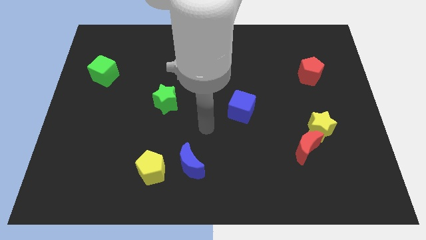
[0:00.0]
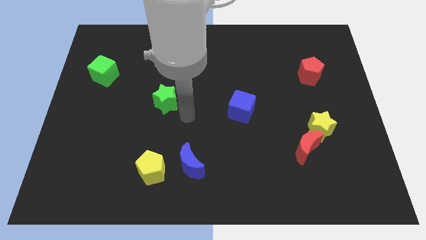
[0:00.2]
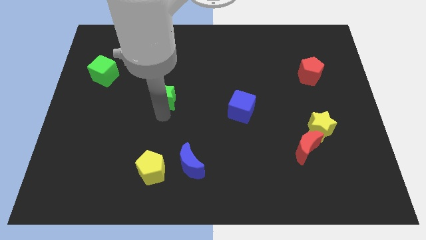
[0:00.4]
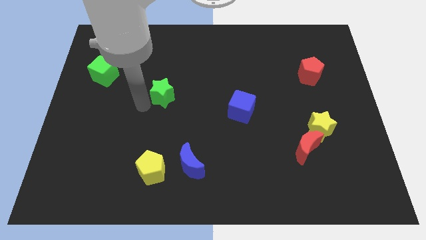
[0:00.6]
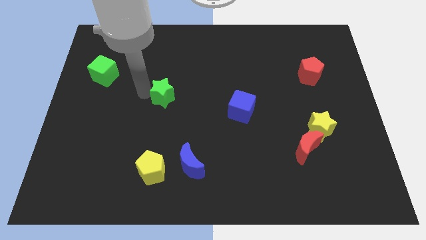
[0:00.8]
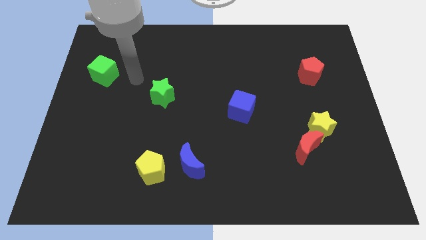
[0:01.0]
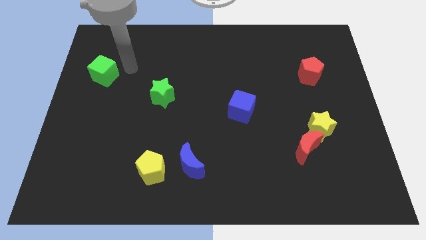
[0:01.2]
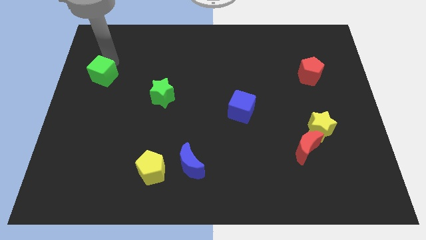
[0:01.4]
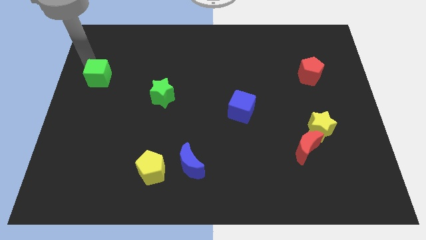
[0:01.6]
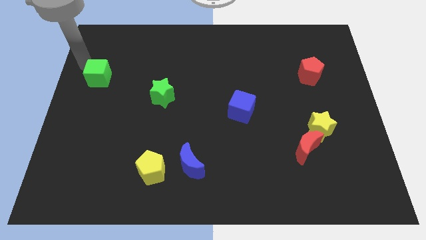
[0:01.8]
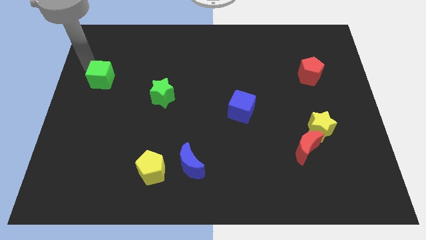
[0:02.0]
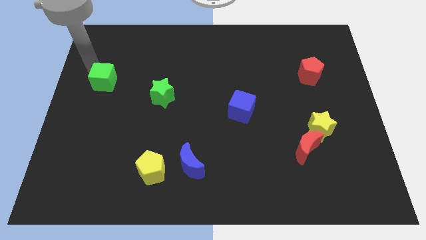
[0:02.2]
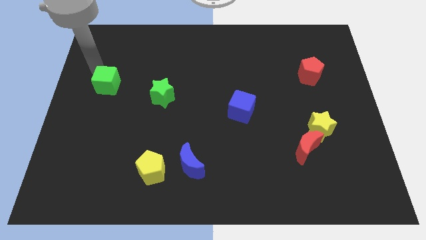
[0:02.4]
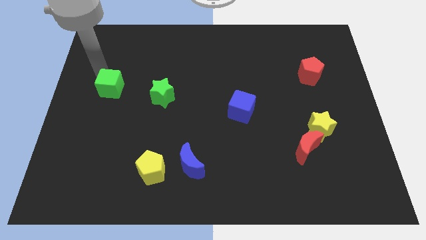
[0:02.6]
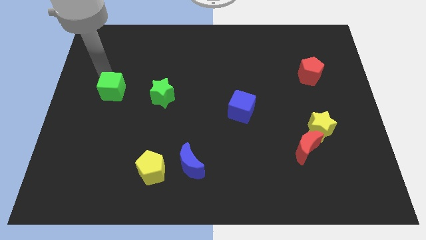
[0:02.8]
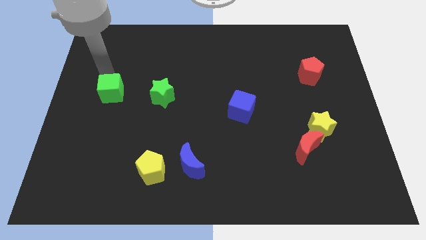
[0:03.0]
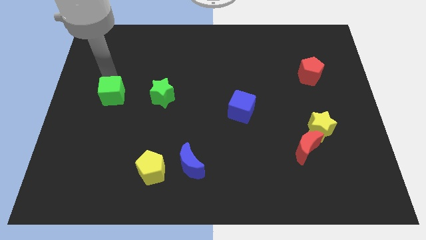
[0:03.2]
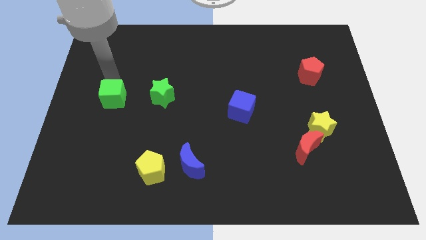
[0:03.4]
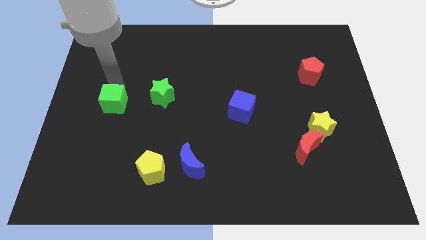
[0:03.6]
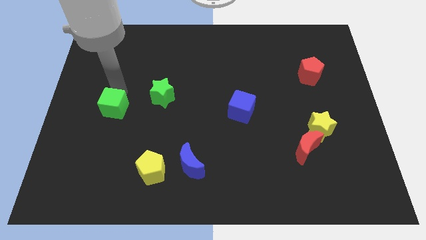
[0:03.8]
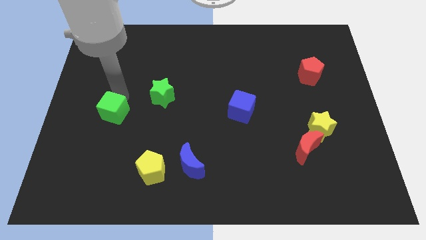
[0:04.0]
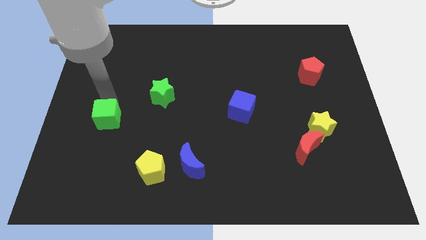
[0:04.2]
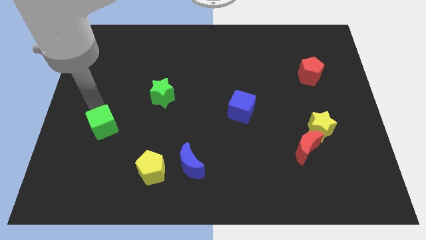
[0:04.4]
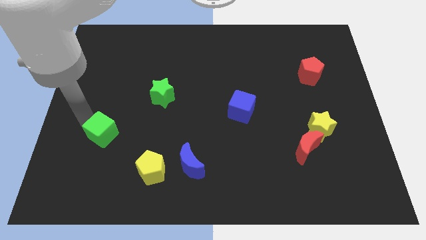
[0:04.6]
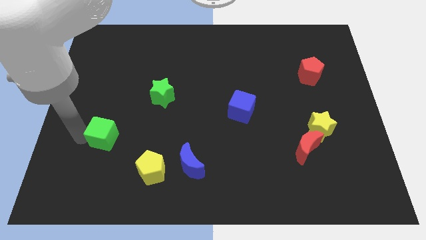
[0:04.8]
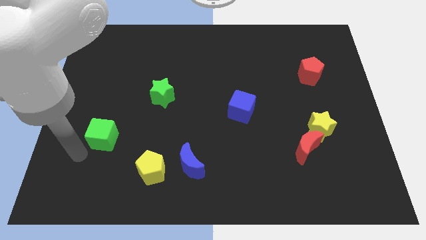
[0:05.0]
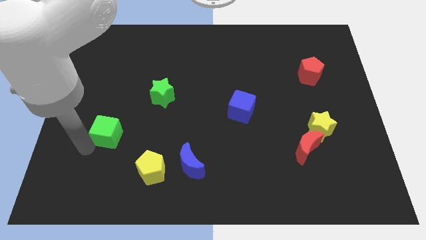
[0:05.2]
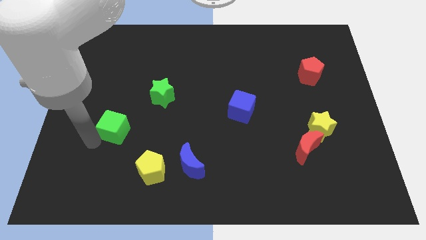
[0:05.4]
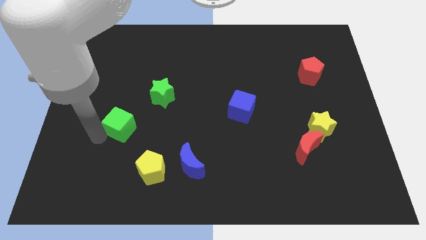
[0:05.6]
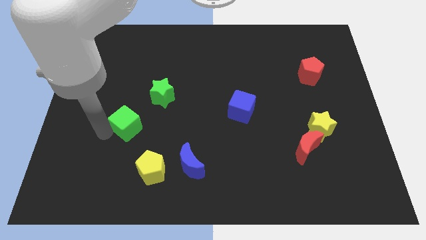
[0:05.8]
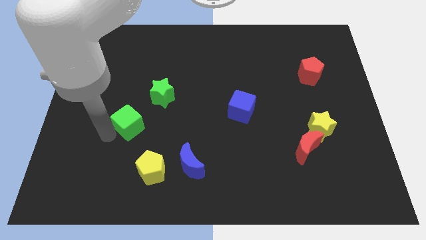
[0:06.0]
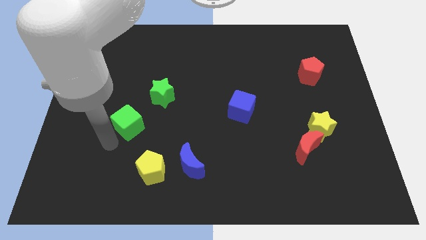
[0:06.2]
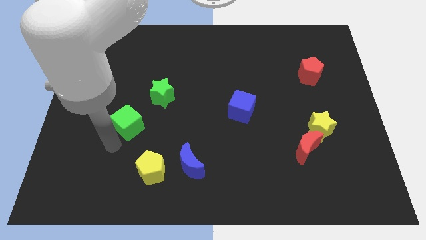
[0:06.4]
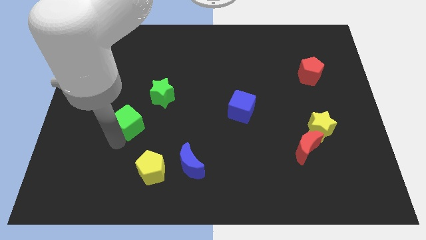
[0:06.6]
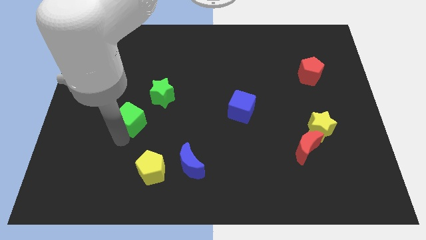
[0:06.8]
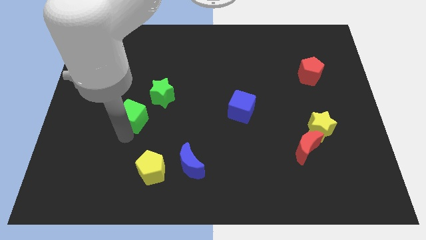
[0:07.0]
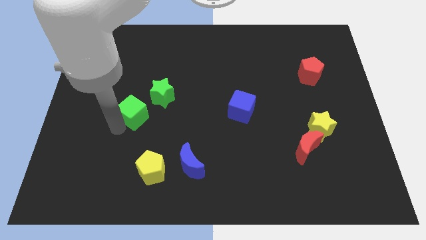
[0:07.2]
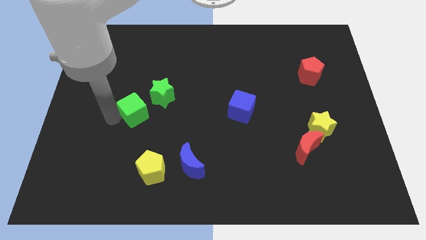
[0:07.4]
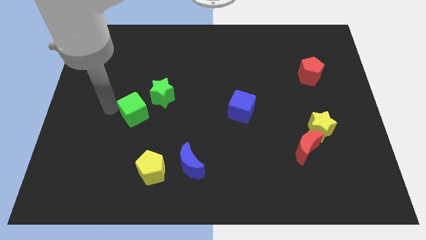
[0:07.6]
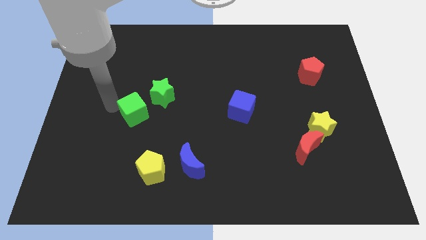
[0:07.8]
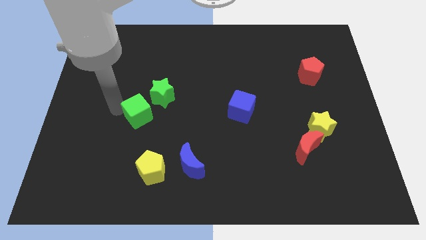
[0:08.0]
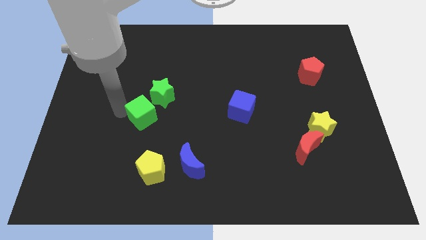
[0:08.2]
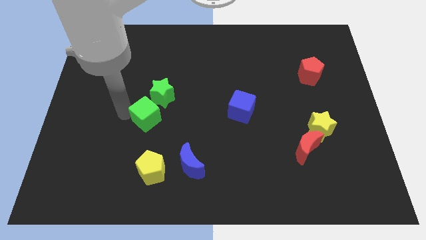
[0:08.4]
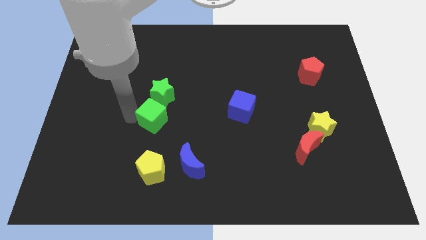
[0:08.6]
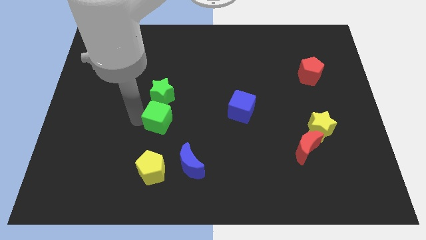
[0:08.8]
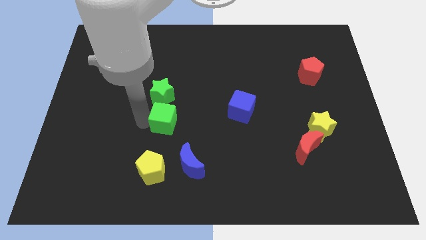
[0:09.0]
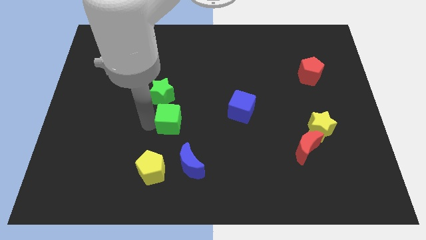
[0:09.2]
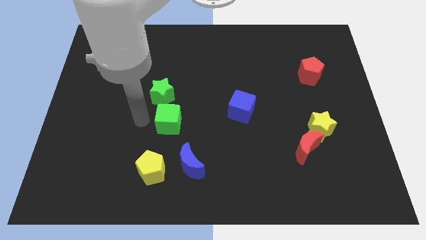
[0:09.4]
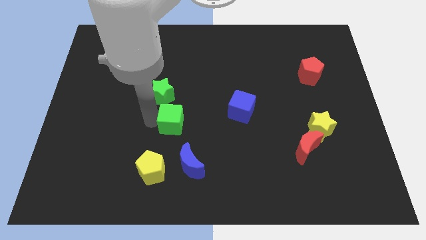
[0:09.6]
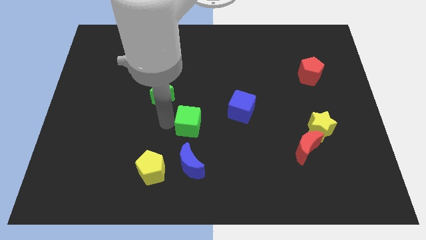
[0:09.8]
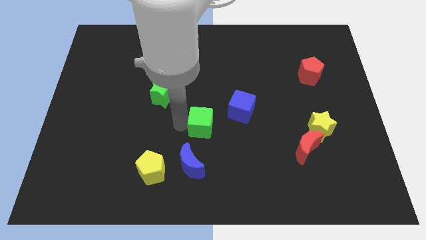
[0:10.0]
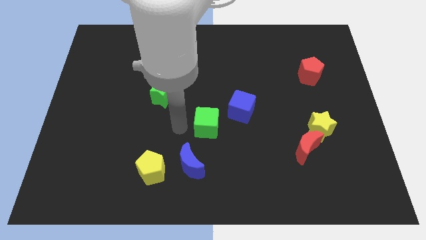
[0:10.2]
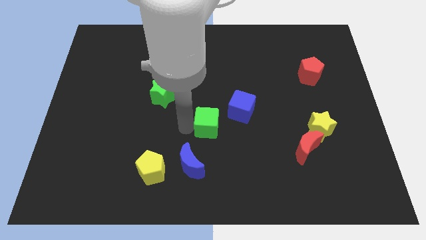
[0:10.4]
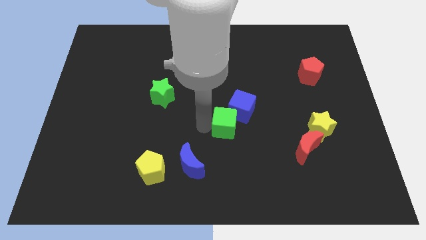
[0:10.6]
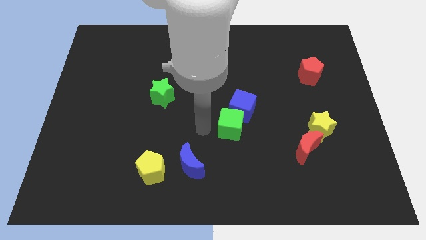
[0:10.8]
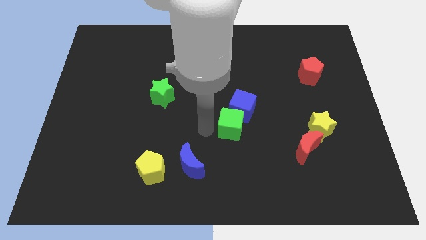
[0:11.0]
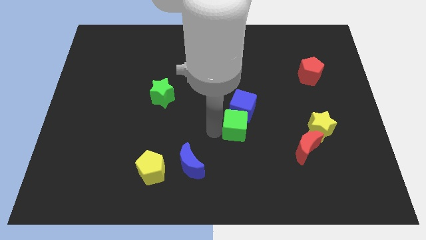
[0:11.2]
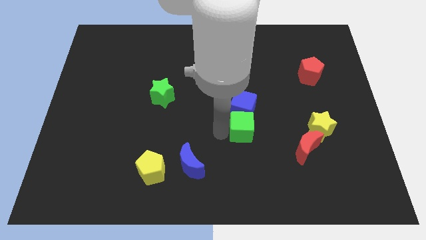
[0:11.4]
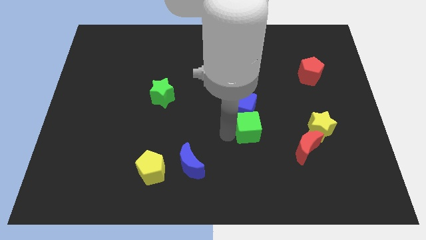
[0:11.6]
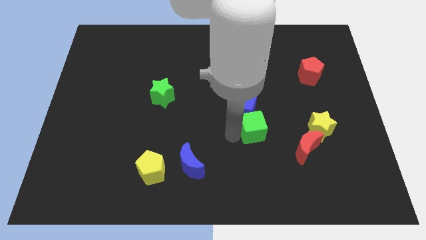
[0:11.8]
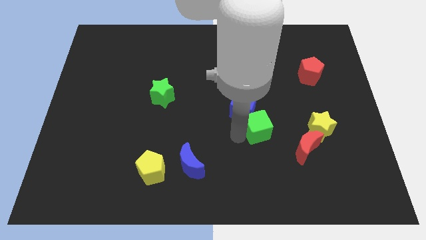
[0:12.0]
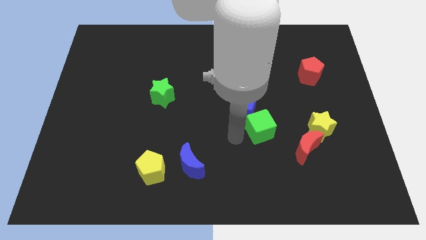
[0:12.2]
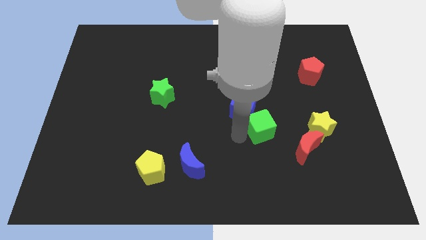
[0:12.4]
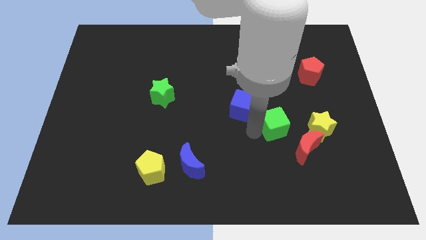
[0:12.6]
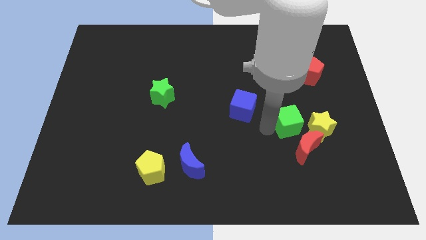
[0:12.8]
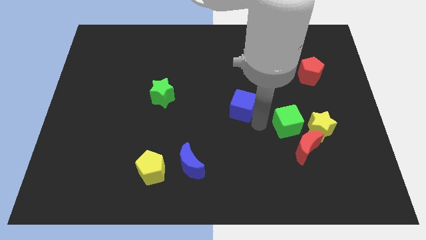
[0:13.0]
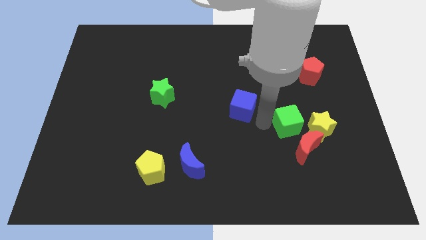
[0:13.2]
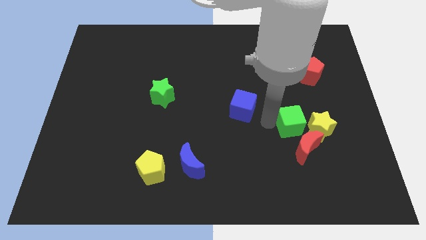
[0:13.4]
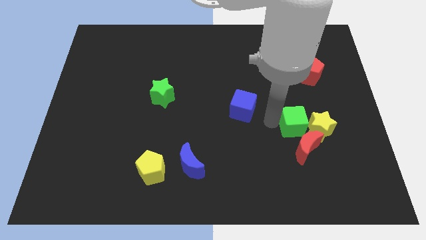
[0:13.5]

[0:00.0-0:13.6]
push the green cube close to the yellow star
